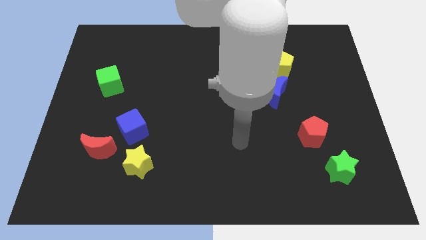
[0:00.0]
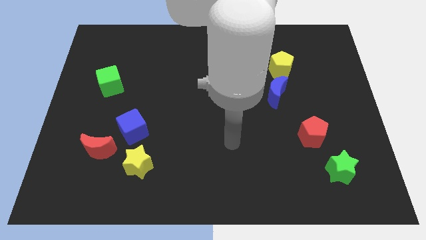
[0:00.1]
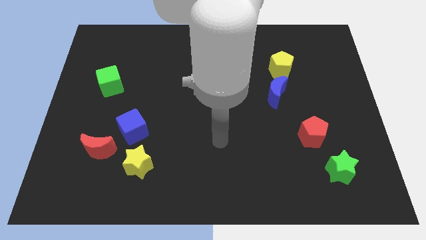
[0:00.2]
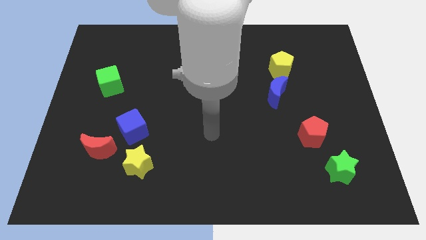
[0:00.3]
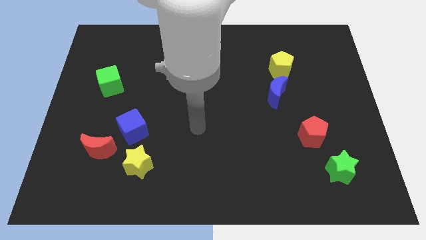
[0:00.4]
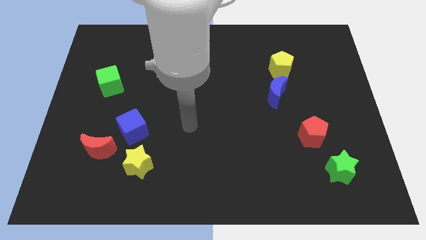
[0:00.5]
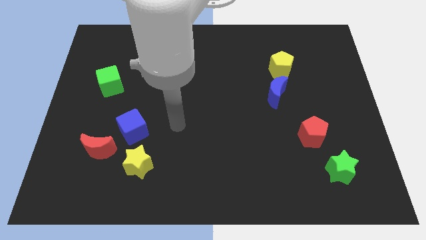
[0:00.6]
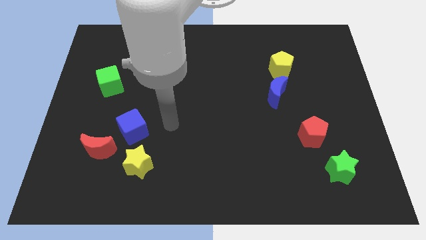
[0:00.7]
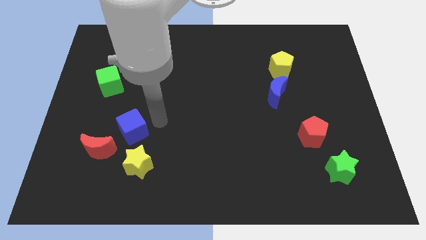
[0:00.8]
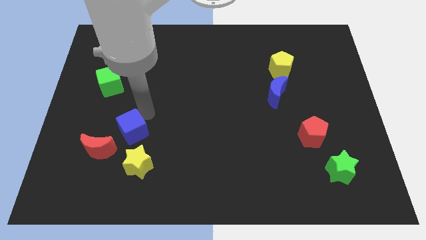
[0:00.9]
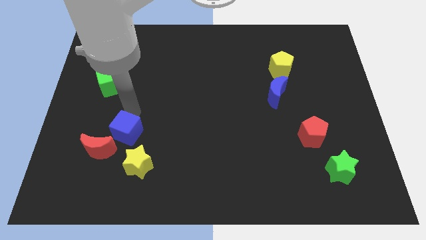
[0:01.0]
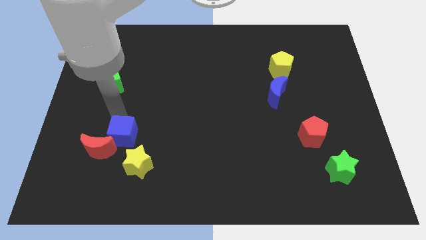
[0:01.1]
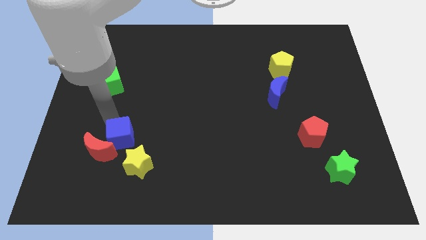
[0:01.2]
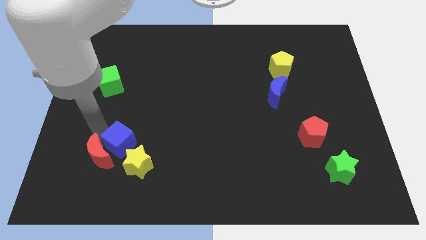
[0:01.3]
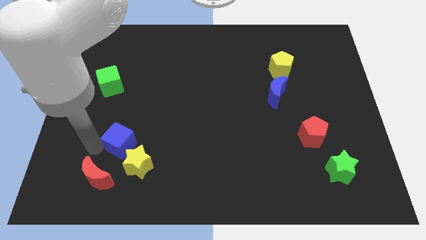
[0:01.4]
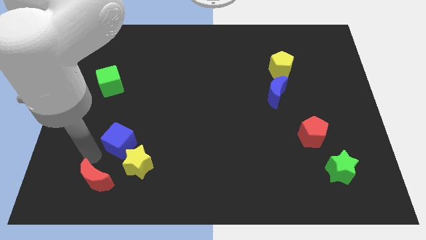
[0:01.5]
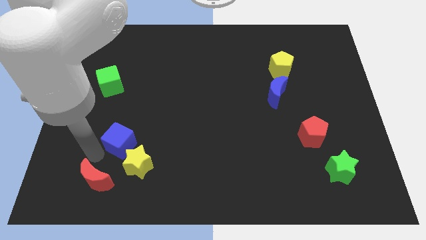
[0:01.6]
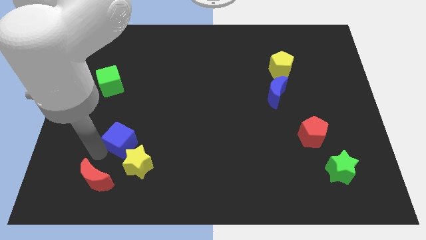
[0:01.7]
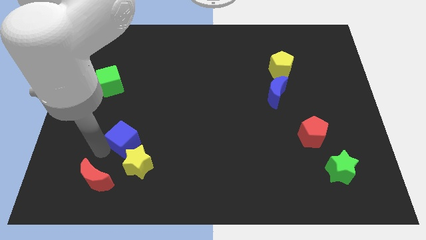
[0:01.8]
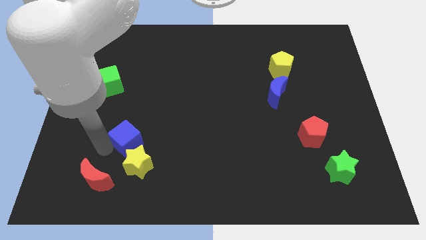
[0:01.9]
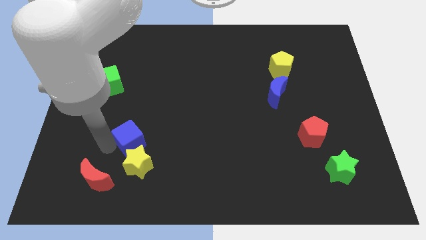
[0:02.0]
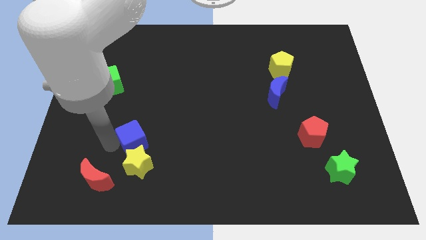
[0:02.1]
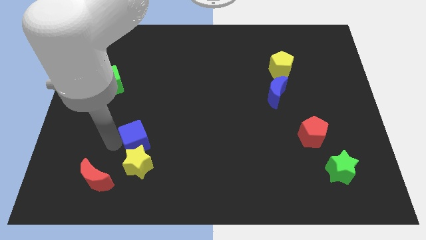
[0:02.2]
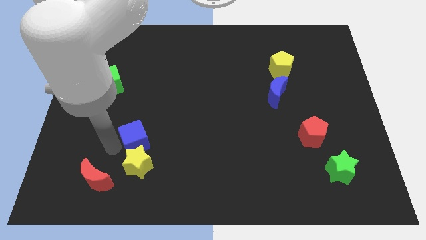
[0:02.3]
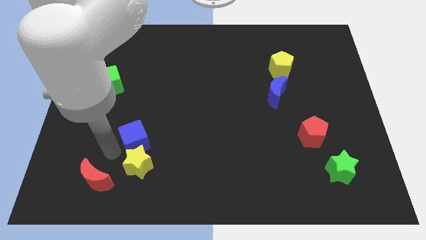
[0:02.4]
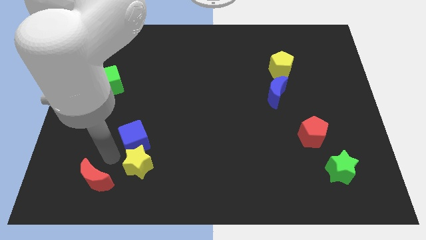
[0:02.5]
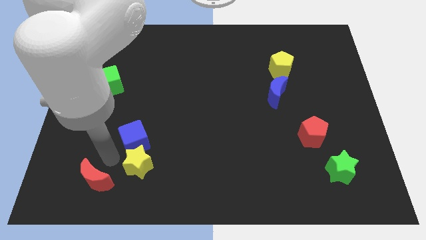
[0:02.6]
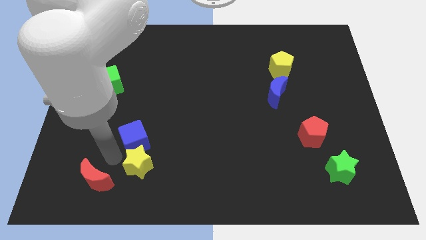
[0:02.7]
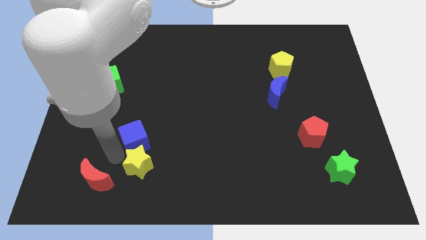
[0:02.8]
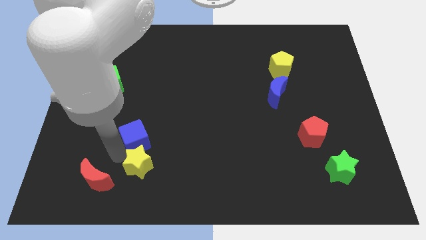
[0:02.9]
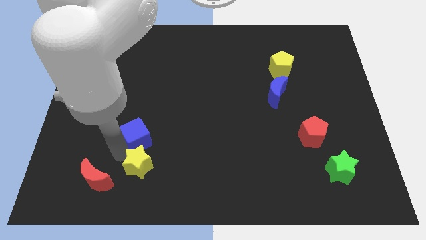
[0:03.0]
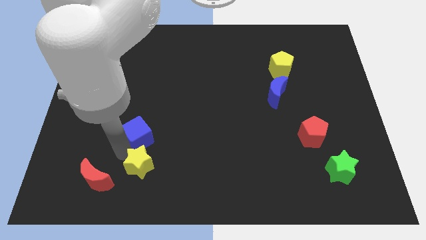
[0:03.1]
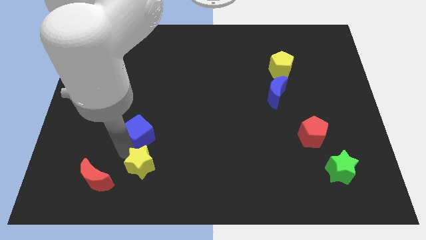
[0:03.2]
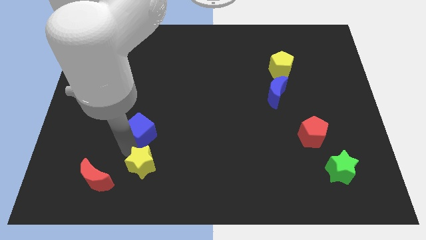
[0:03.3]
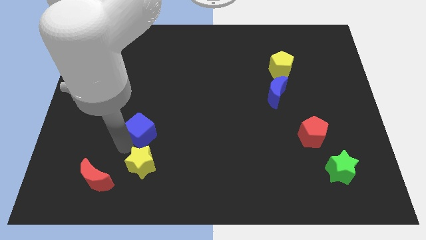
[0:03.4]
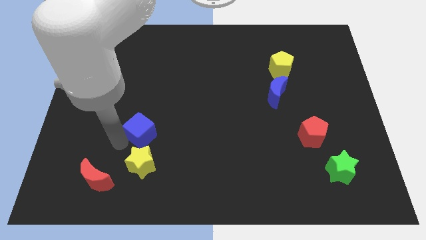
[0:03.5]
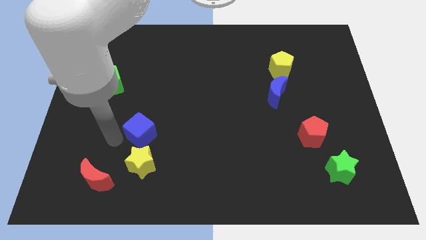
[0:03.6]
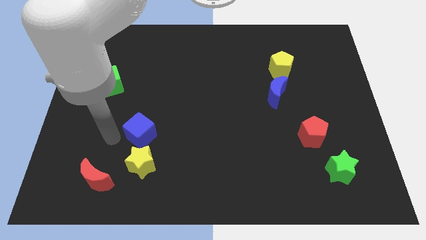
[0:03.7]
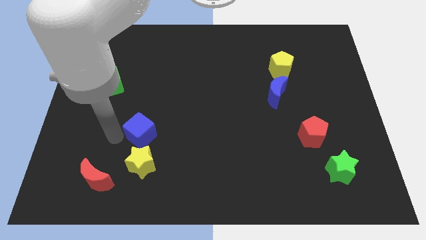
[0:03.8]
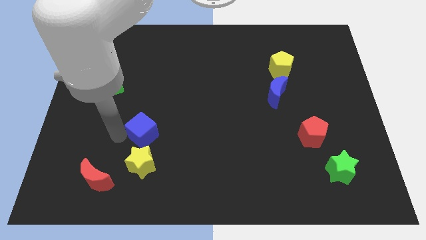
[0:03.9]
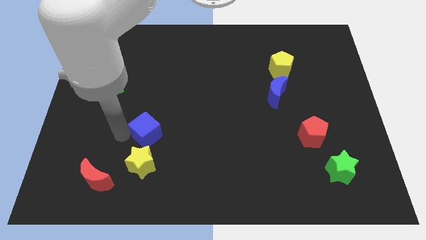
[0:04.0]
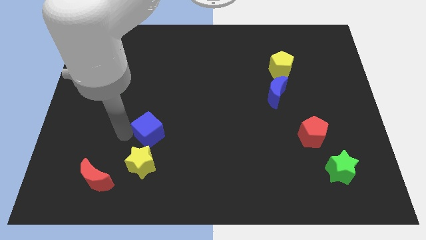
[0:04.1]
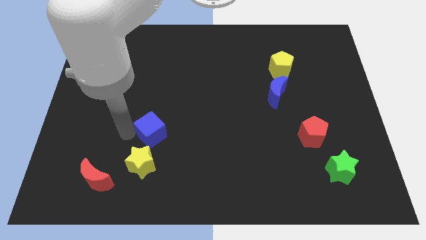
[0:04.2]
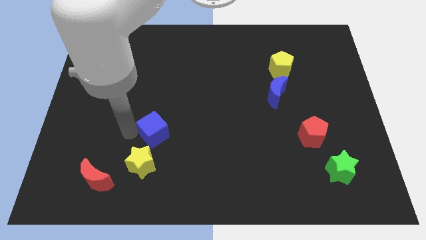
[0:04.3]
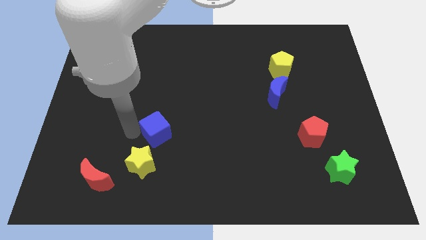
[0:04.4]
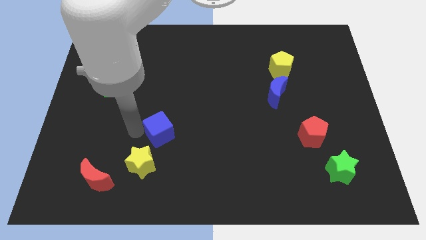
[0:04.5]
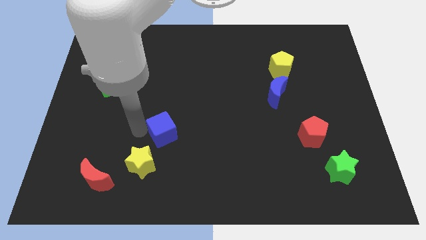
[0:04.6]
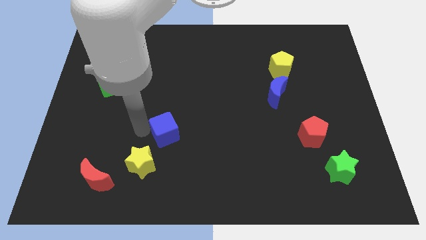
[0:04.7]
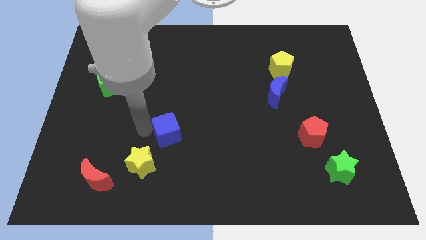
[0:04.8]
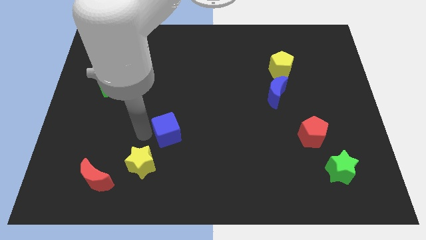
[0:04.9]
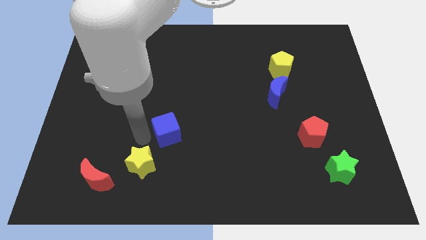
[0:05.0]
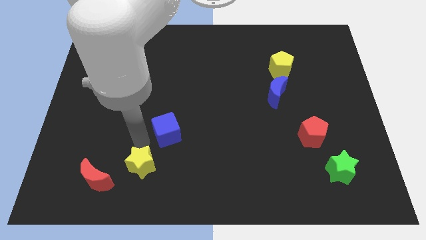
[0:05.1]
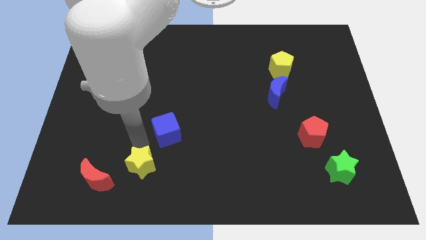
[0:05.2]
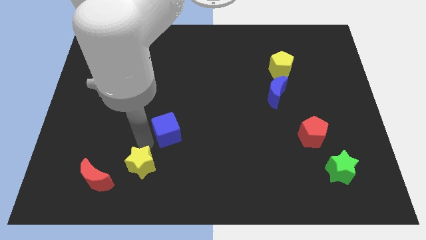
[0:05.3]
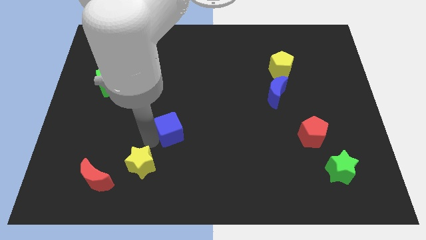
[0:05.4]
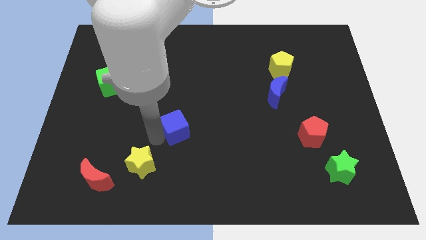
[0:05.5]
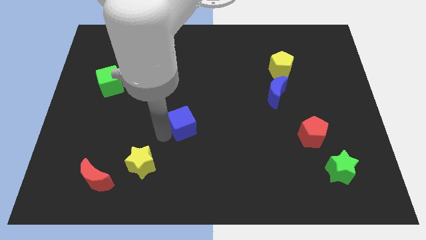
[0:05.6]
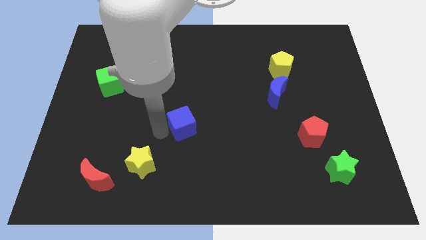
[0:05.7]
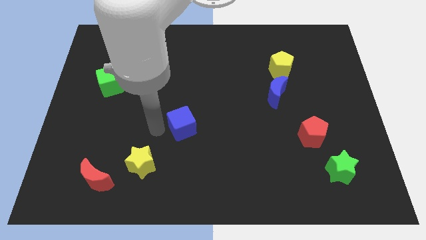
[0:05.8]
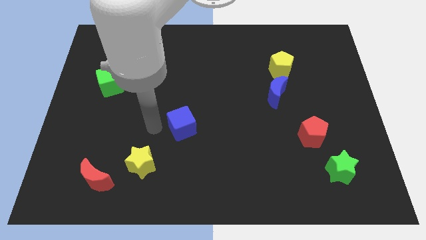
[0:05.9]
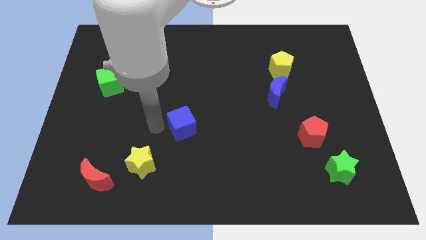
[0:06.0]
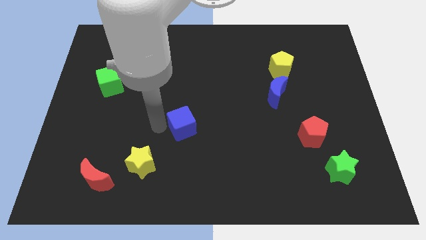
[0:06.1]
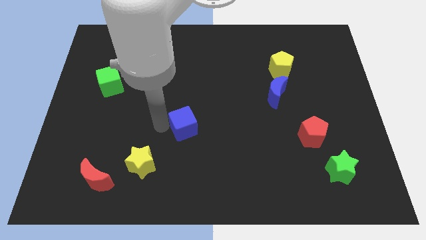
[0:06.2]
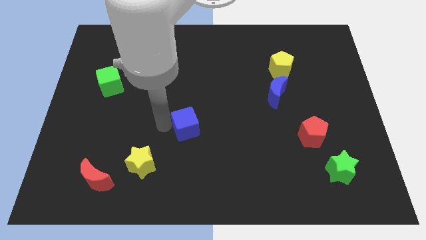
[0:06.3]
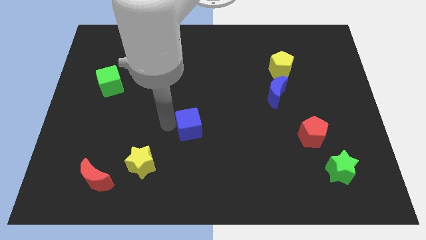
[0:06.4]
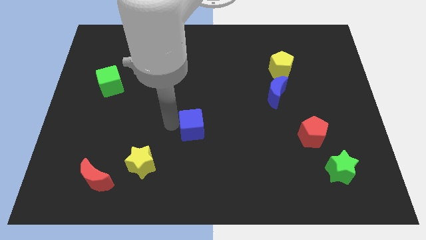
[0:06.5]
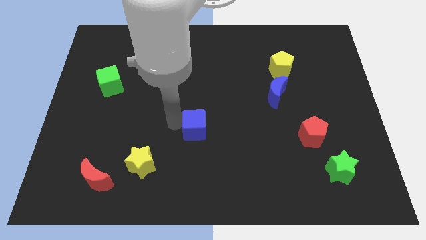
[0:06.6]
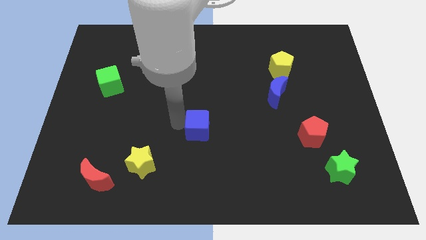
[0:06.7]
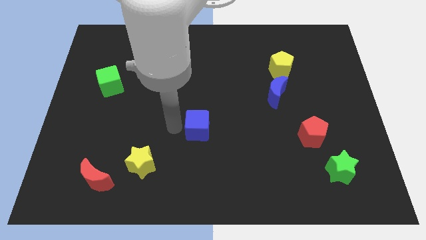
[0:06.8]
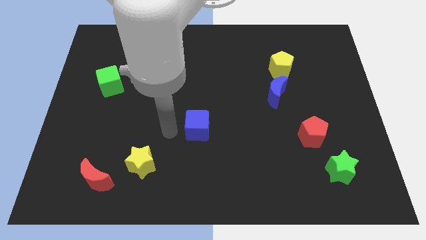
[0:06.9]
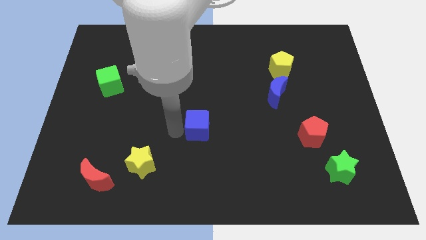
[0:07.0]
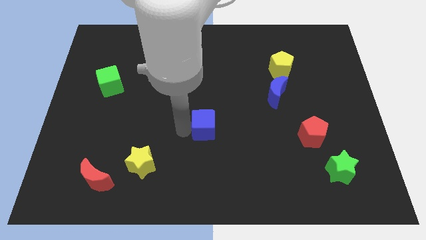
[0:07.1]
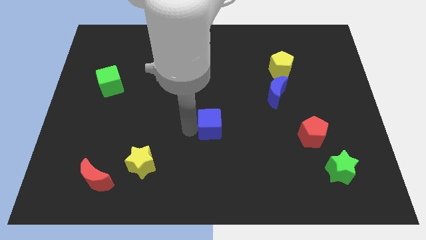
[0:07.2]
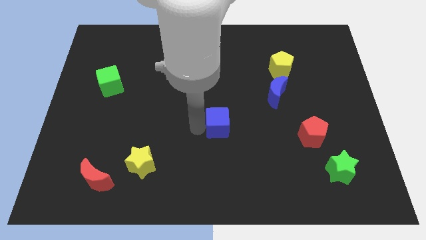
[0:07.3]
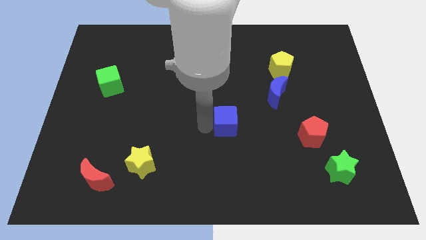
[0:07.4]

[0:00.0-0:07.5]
push the blue cube to the right

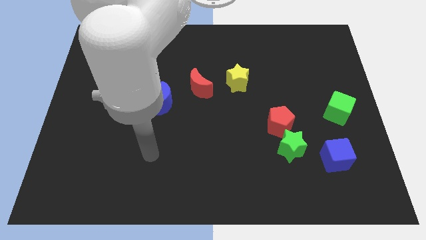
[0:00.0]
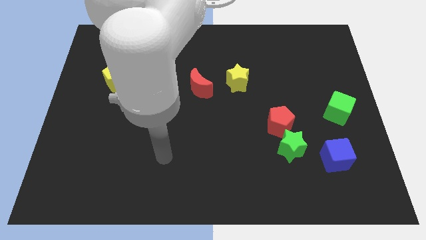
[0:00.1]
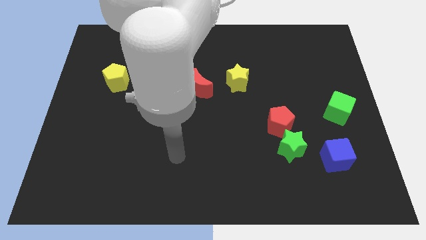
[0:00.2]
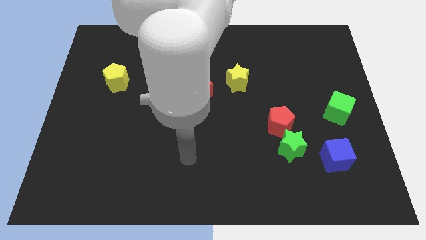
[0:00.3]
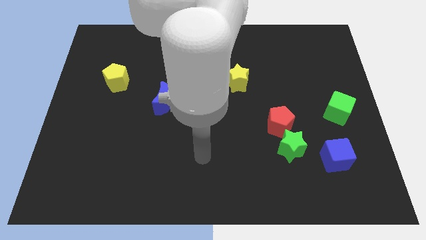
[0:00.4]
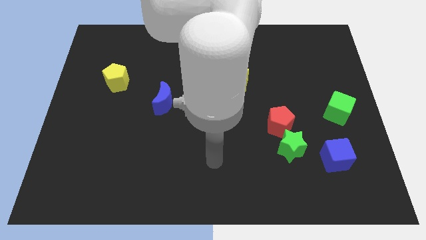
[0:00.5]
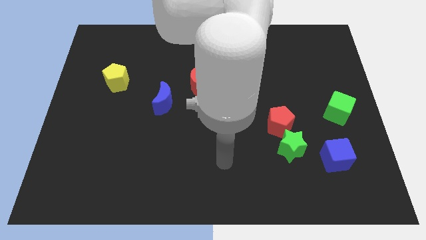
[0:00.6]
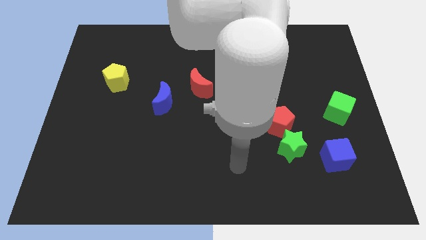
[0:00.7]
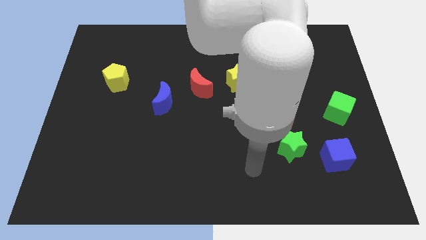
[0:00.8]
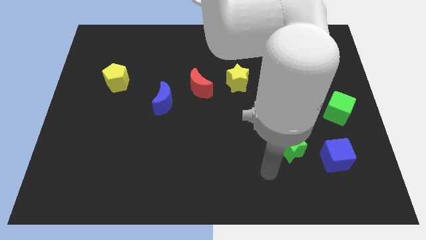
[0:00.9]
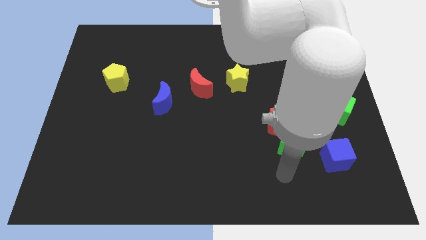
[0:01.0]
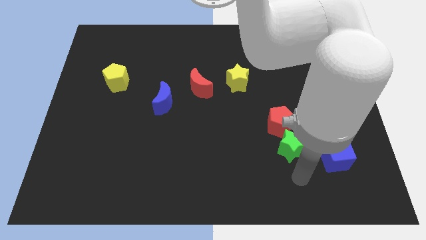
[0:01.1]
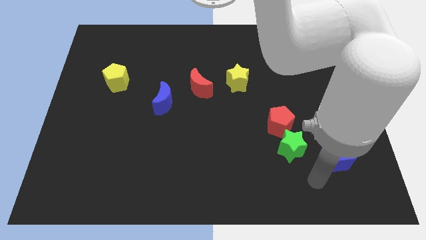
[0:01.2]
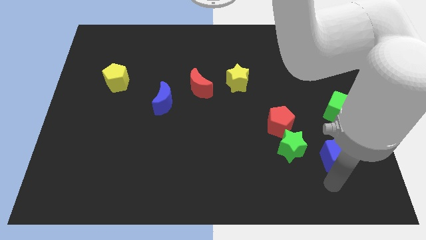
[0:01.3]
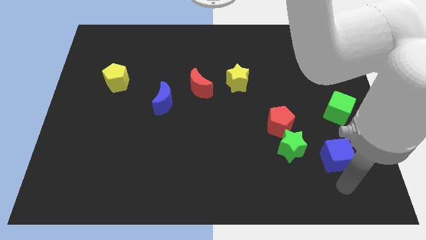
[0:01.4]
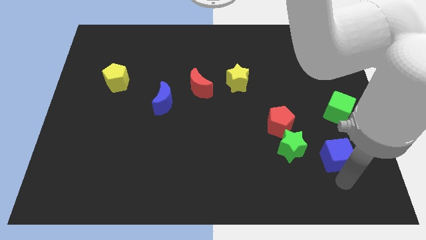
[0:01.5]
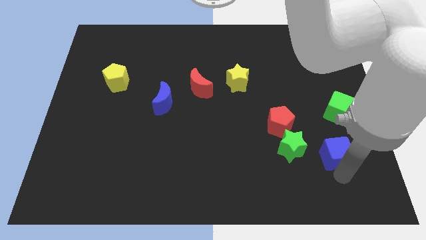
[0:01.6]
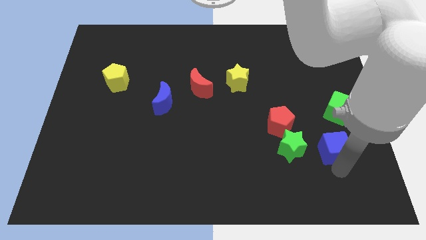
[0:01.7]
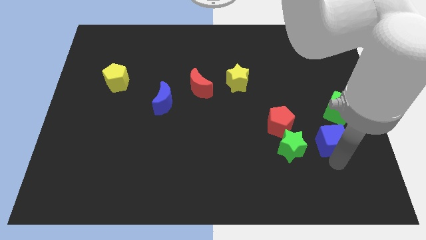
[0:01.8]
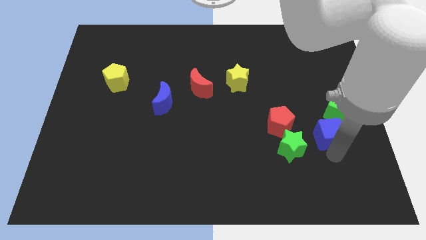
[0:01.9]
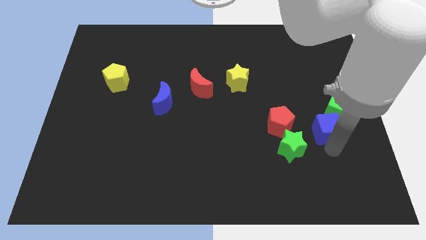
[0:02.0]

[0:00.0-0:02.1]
slightly slide the blue cube up
